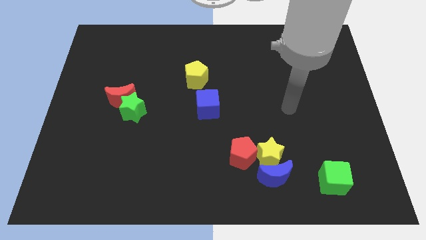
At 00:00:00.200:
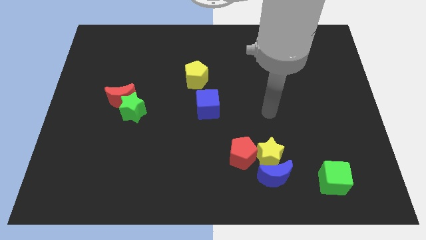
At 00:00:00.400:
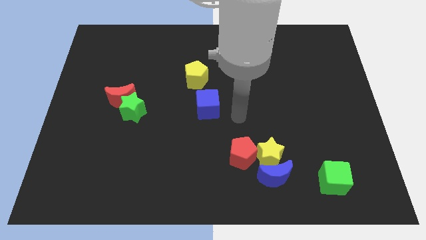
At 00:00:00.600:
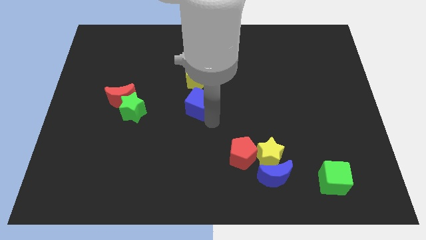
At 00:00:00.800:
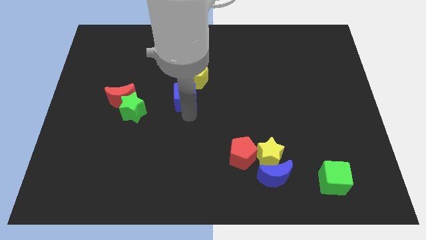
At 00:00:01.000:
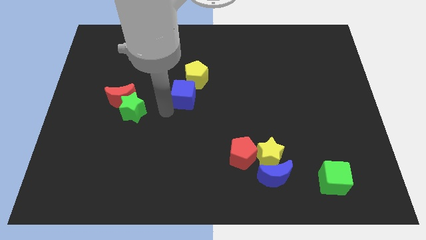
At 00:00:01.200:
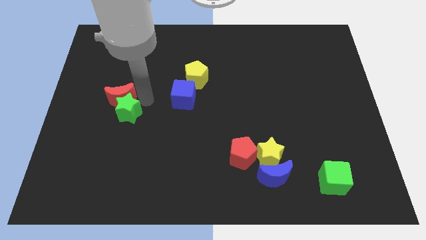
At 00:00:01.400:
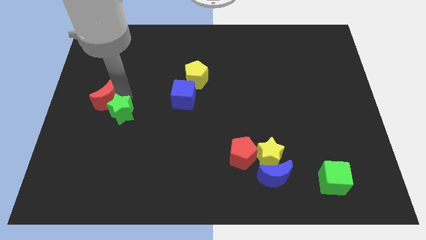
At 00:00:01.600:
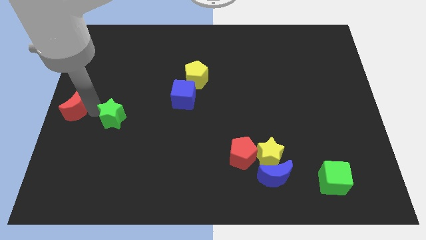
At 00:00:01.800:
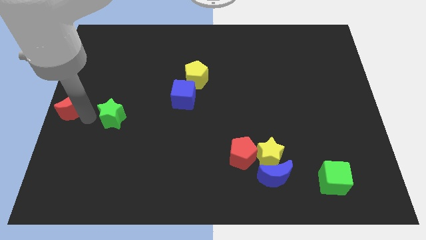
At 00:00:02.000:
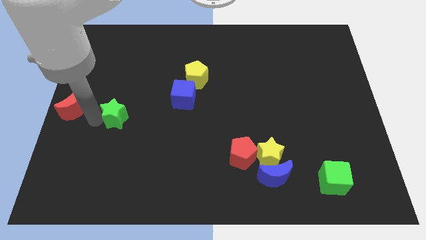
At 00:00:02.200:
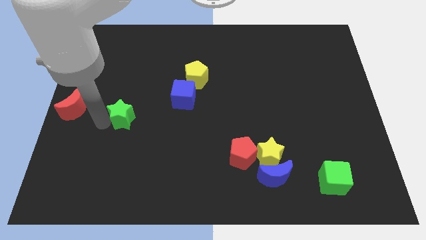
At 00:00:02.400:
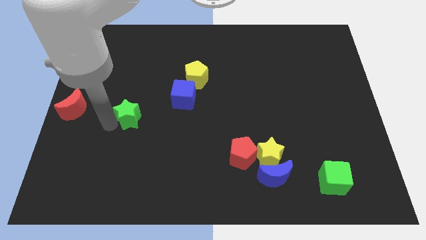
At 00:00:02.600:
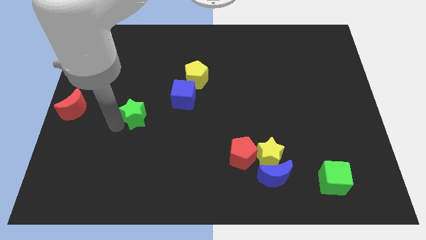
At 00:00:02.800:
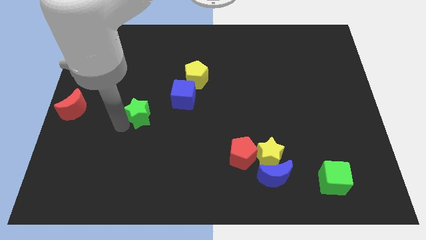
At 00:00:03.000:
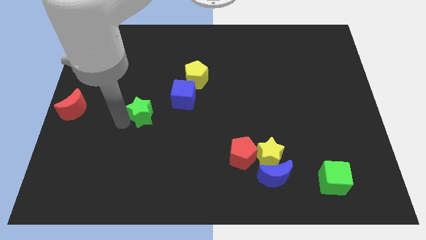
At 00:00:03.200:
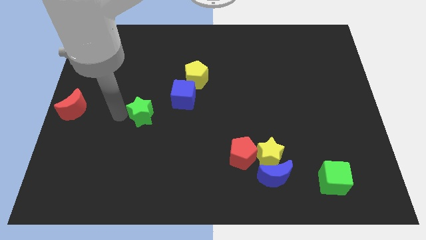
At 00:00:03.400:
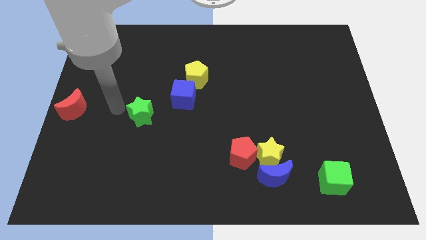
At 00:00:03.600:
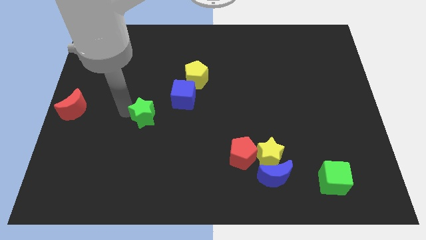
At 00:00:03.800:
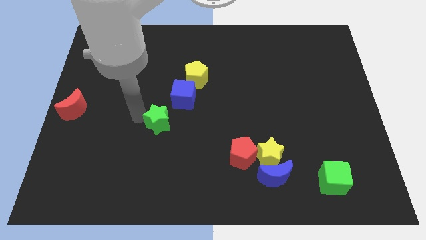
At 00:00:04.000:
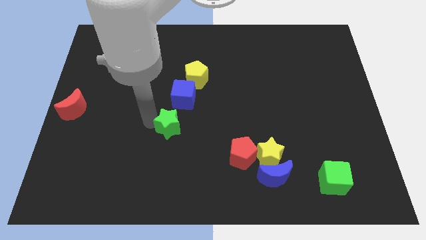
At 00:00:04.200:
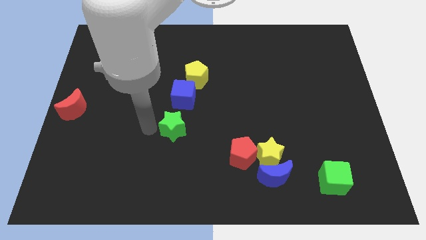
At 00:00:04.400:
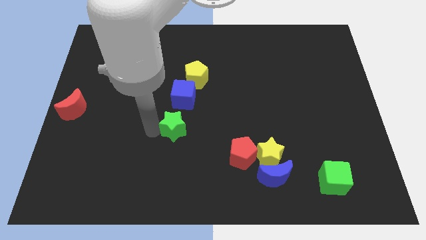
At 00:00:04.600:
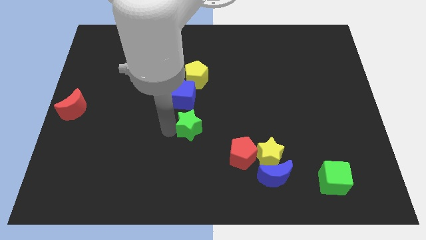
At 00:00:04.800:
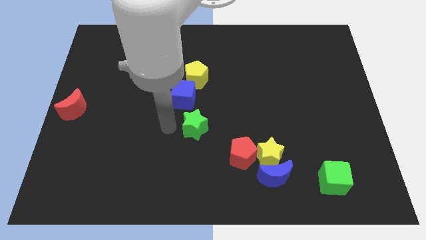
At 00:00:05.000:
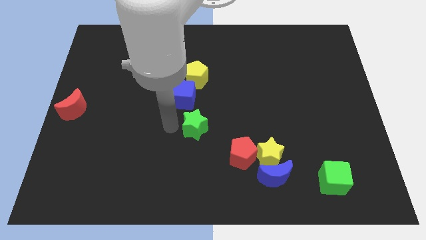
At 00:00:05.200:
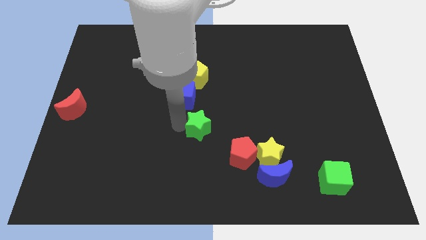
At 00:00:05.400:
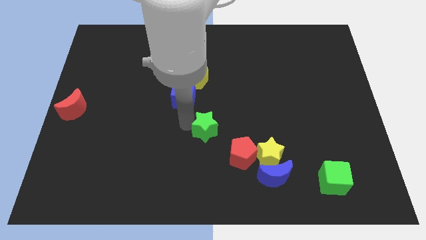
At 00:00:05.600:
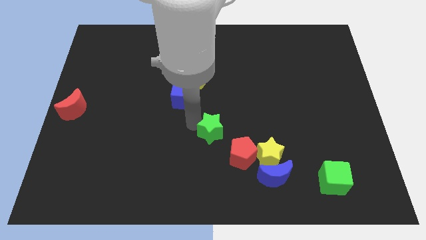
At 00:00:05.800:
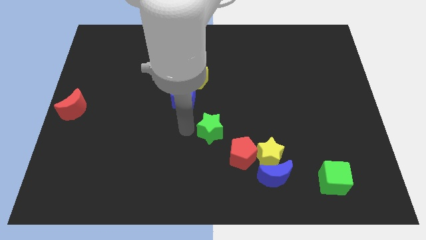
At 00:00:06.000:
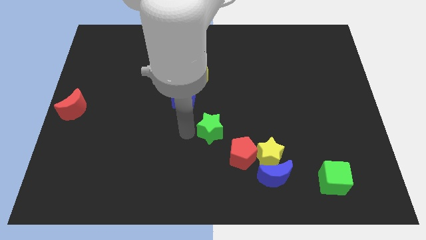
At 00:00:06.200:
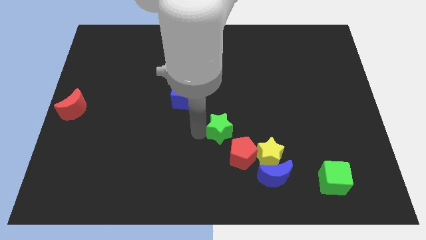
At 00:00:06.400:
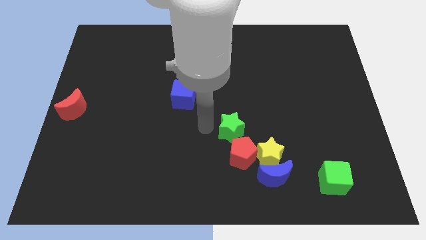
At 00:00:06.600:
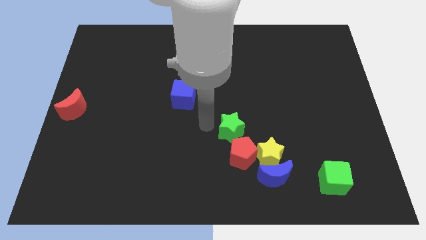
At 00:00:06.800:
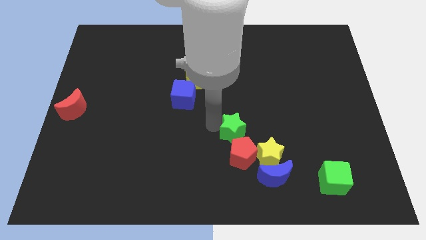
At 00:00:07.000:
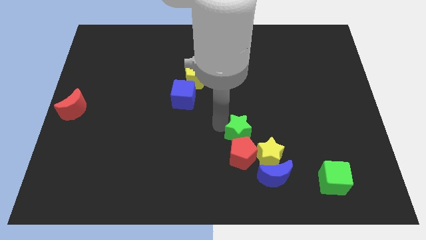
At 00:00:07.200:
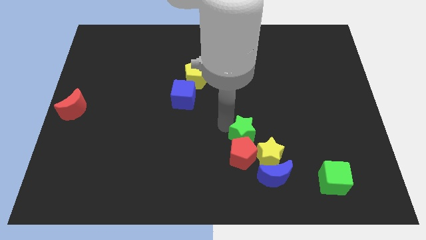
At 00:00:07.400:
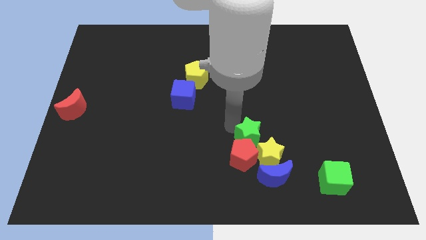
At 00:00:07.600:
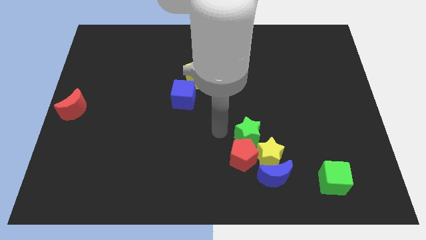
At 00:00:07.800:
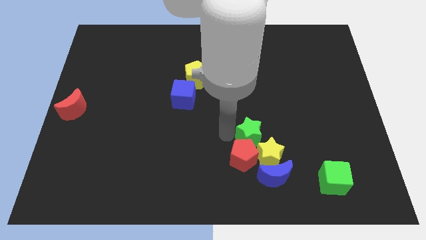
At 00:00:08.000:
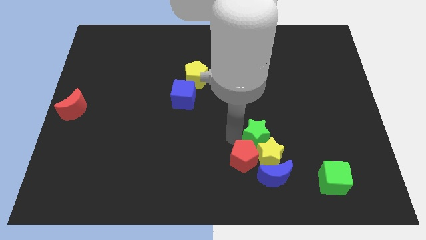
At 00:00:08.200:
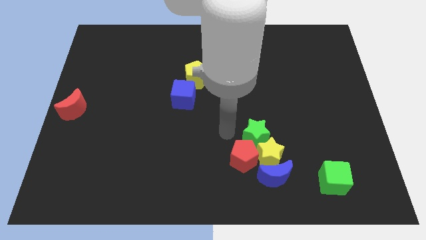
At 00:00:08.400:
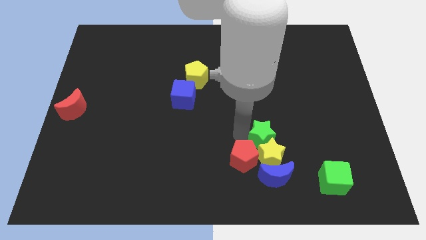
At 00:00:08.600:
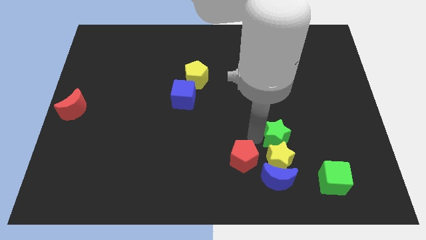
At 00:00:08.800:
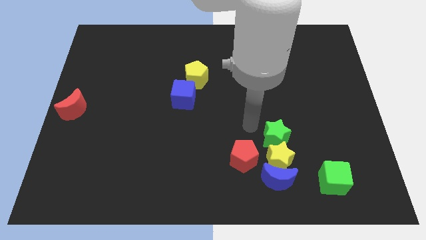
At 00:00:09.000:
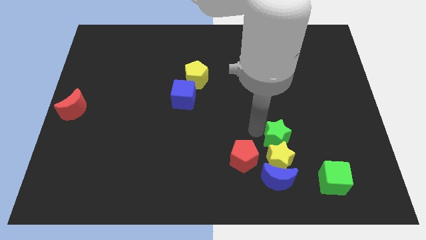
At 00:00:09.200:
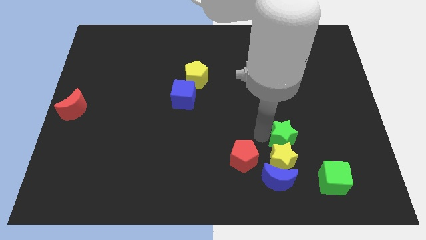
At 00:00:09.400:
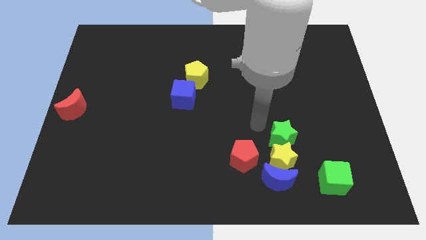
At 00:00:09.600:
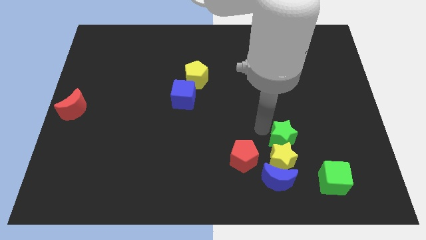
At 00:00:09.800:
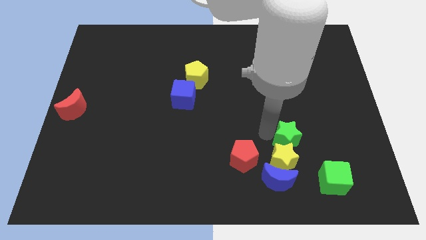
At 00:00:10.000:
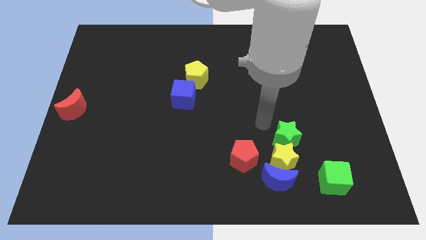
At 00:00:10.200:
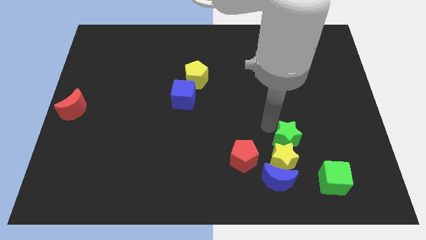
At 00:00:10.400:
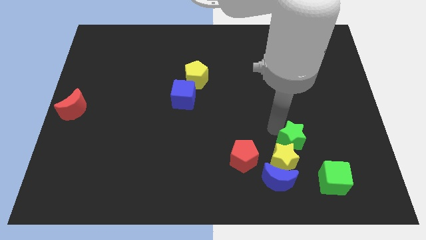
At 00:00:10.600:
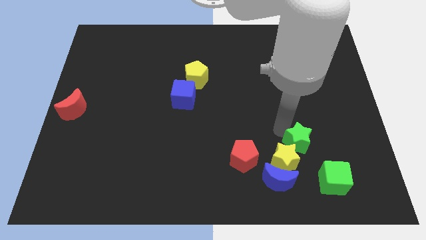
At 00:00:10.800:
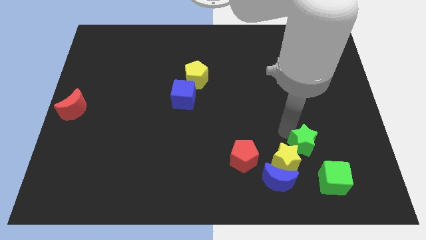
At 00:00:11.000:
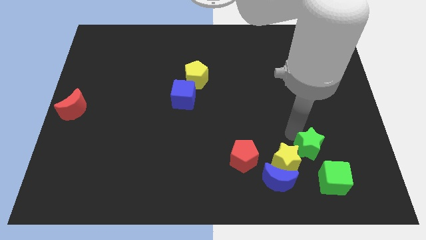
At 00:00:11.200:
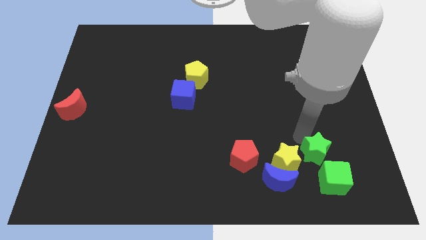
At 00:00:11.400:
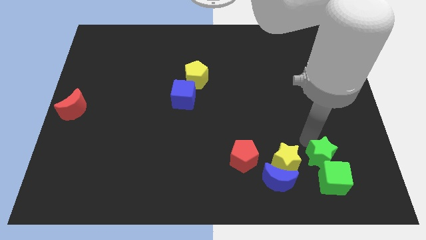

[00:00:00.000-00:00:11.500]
push the green star close to the green cube

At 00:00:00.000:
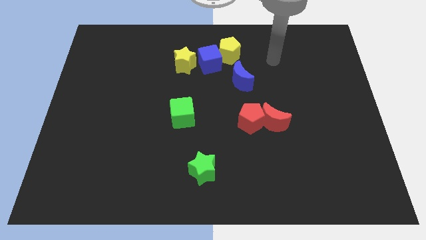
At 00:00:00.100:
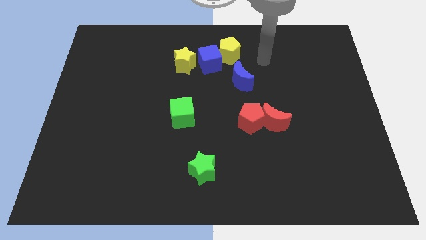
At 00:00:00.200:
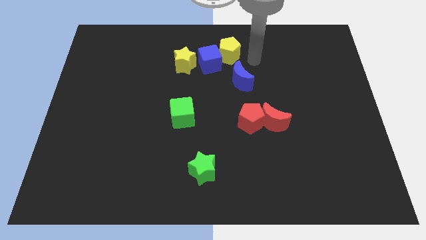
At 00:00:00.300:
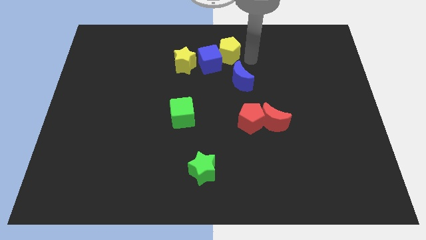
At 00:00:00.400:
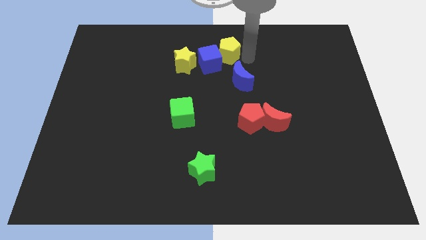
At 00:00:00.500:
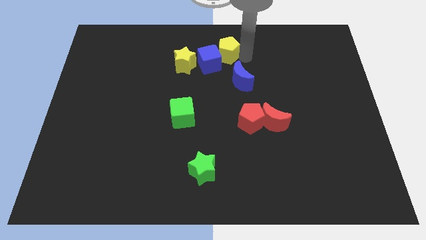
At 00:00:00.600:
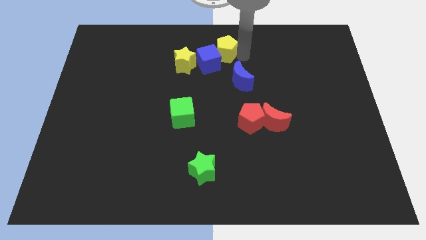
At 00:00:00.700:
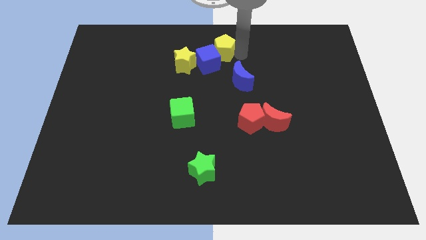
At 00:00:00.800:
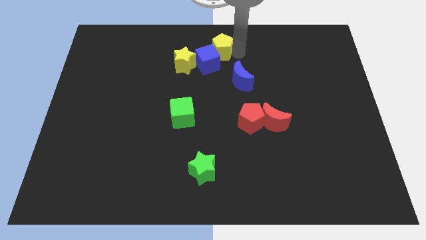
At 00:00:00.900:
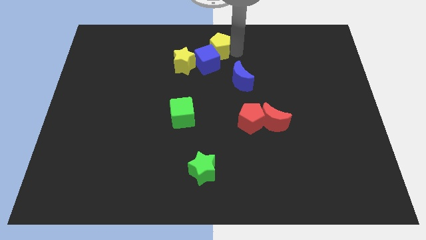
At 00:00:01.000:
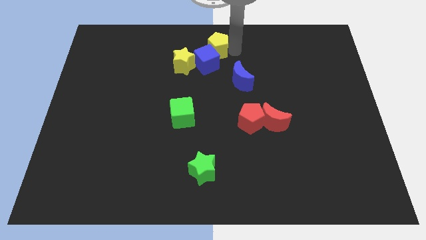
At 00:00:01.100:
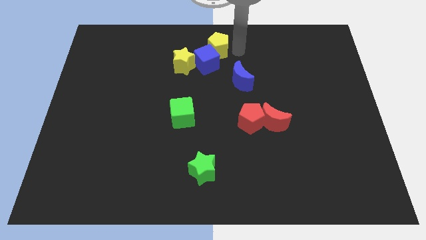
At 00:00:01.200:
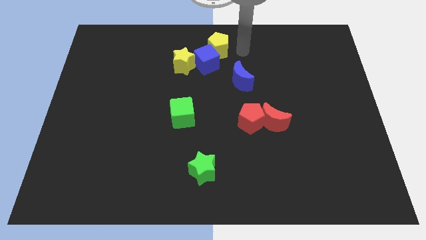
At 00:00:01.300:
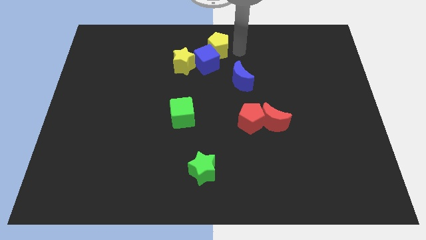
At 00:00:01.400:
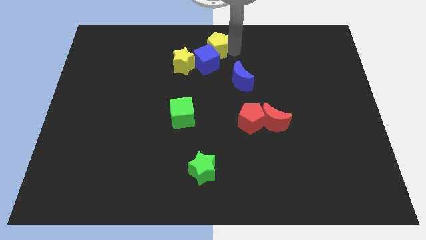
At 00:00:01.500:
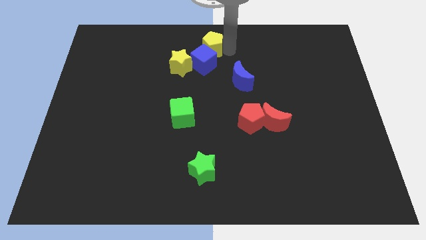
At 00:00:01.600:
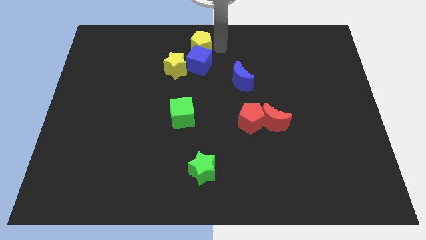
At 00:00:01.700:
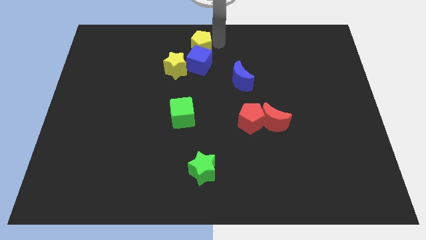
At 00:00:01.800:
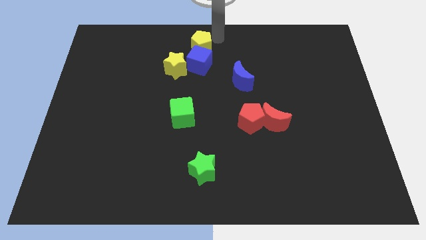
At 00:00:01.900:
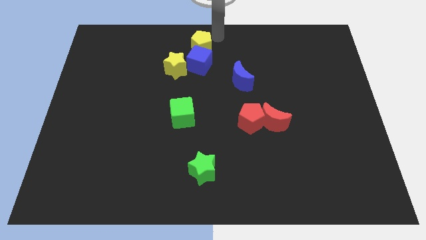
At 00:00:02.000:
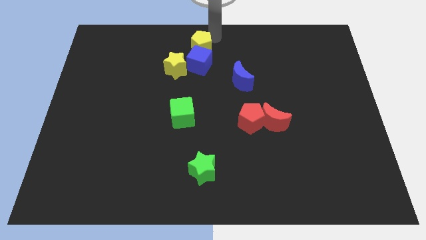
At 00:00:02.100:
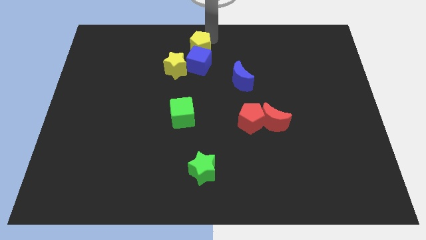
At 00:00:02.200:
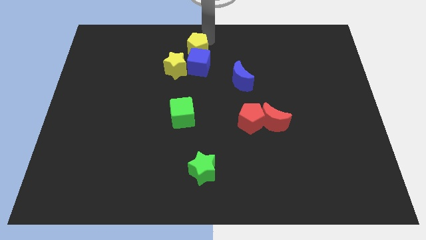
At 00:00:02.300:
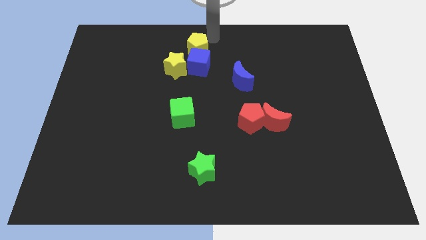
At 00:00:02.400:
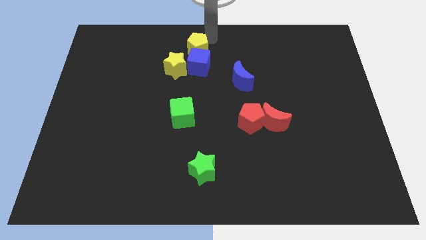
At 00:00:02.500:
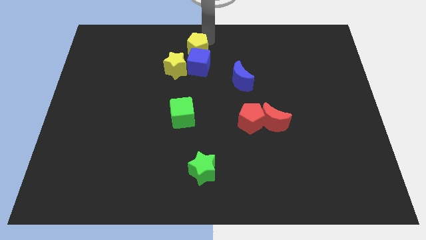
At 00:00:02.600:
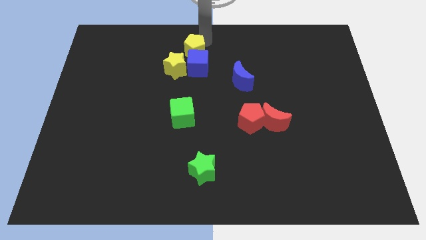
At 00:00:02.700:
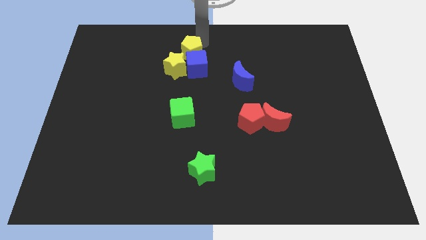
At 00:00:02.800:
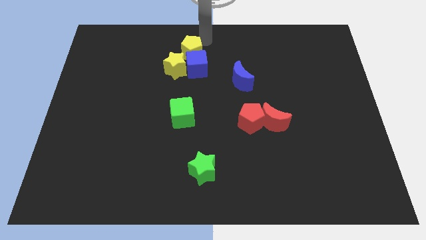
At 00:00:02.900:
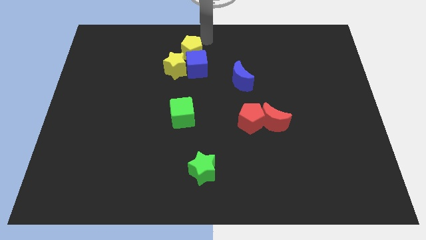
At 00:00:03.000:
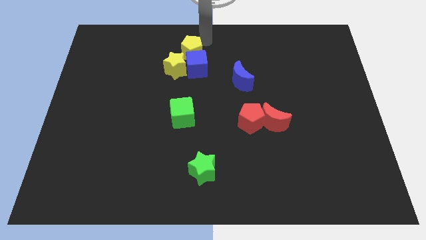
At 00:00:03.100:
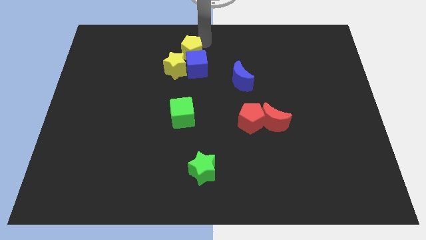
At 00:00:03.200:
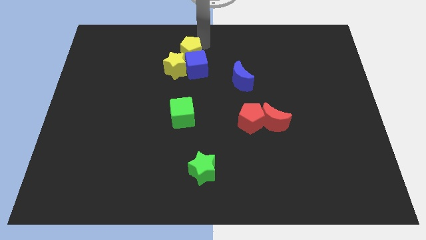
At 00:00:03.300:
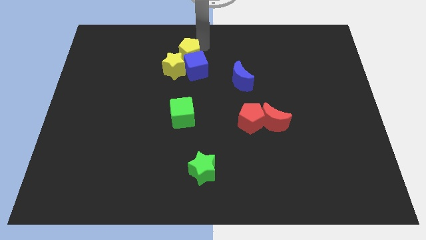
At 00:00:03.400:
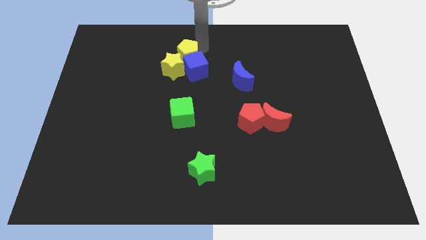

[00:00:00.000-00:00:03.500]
put the yellow pentagon next to the yellow star
